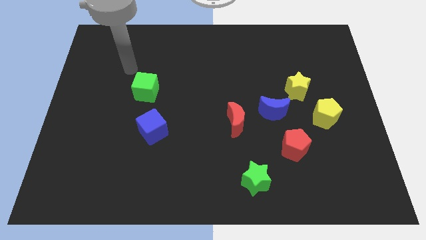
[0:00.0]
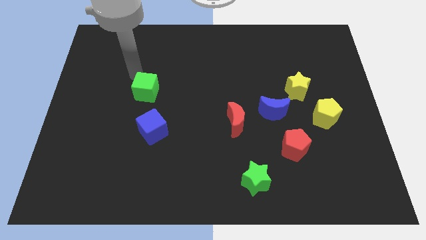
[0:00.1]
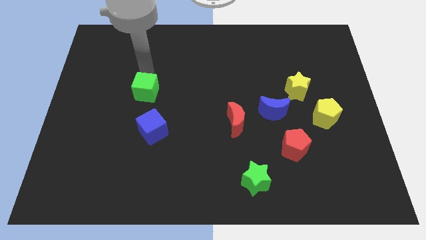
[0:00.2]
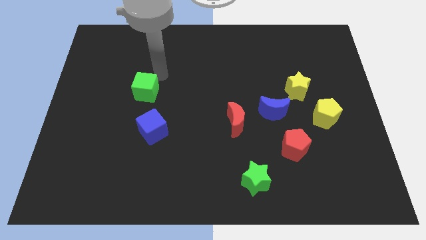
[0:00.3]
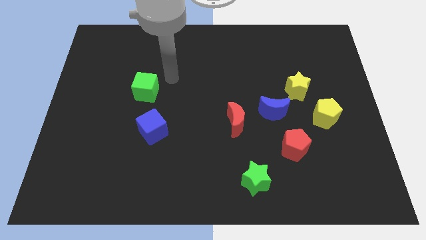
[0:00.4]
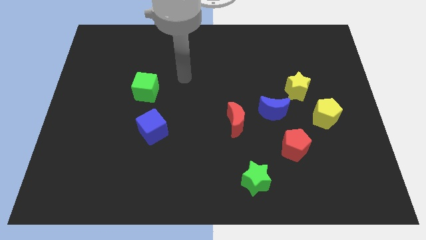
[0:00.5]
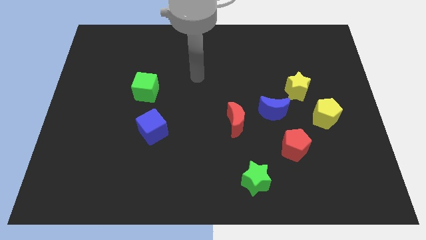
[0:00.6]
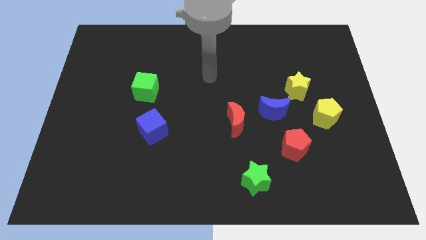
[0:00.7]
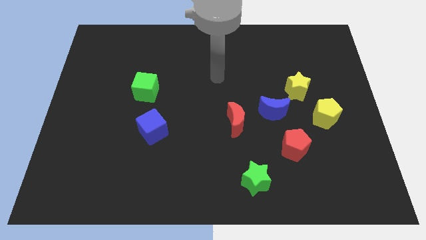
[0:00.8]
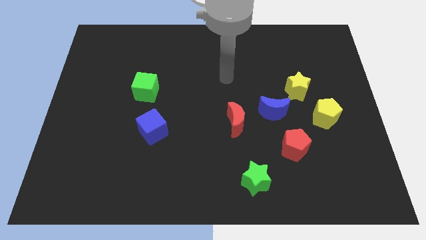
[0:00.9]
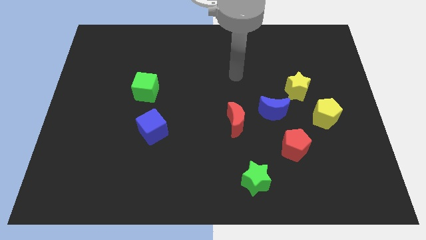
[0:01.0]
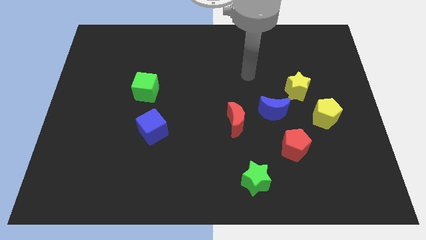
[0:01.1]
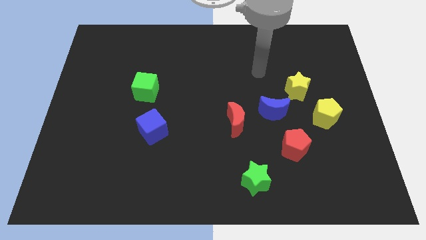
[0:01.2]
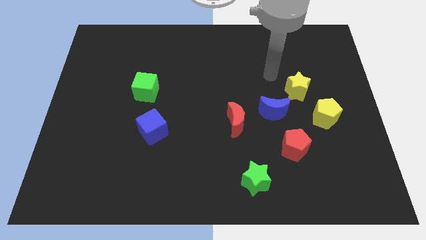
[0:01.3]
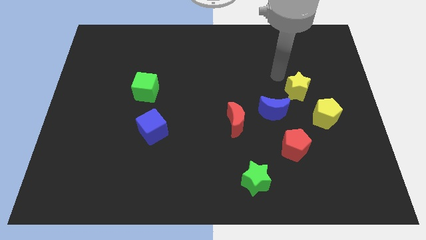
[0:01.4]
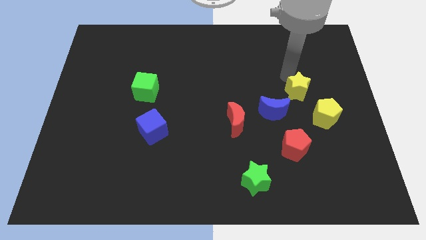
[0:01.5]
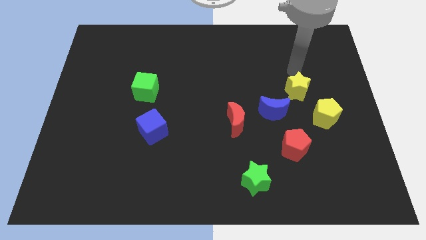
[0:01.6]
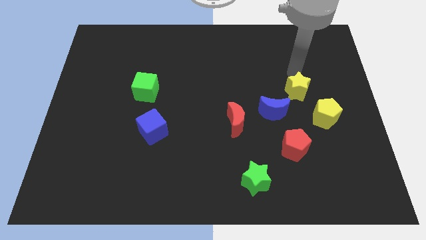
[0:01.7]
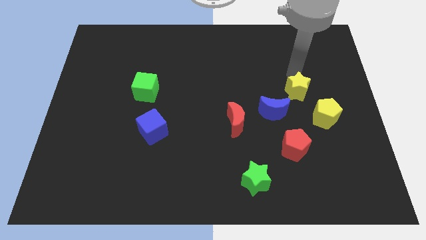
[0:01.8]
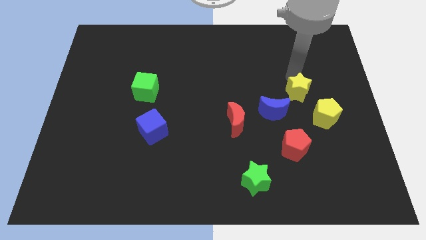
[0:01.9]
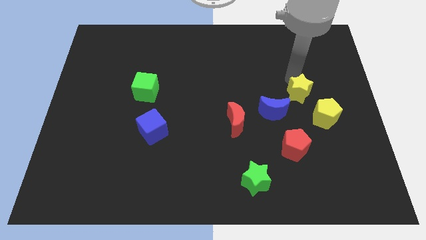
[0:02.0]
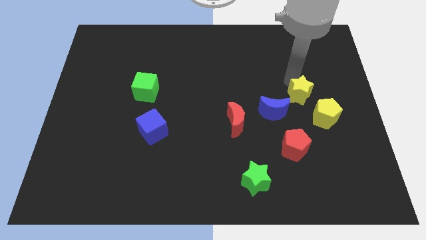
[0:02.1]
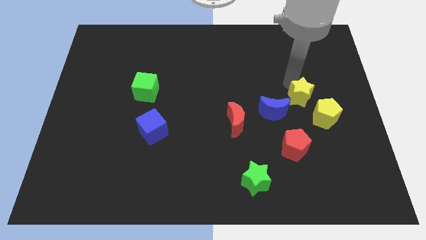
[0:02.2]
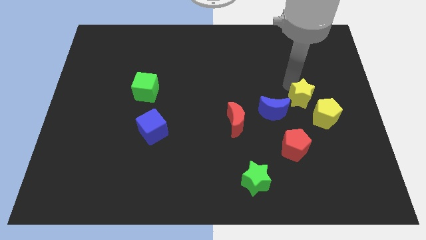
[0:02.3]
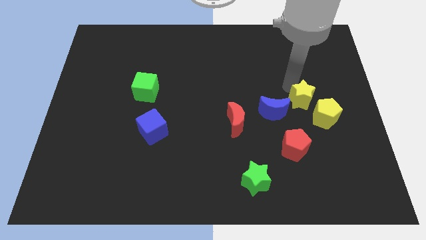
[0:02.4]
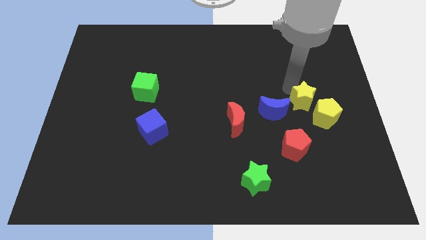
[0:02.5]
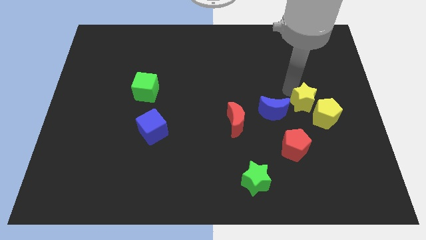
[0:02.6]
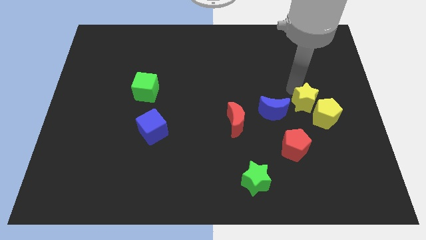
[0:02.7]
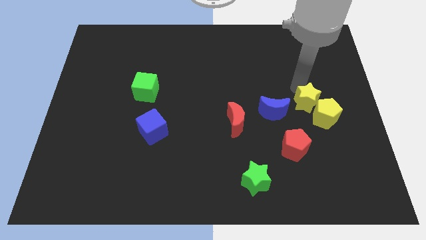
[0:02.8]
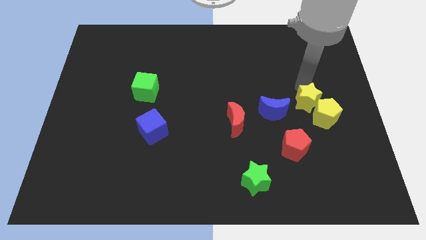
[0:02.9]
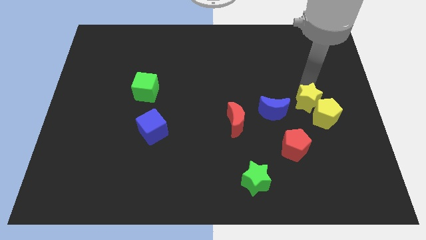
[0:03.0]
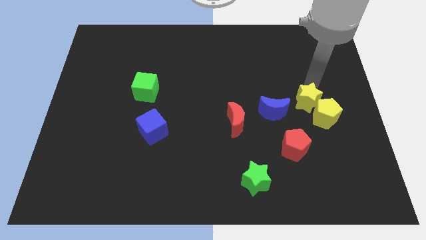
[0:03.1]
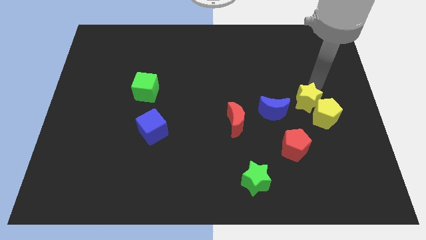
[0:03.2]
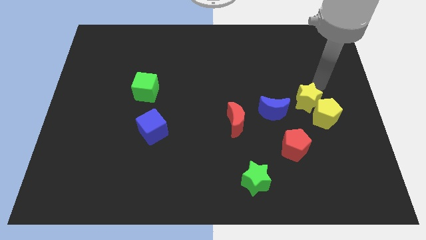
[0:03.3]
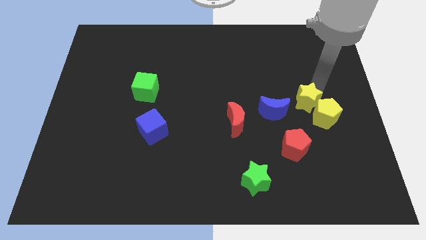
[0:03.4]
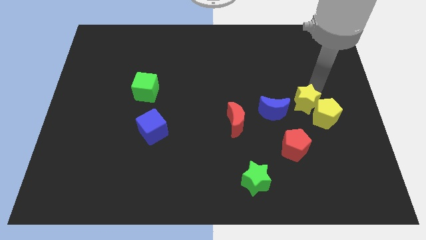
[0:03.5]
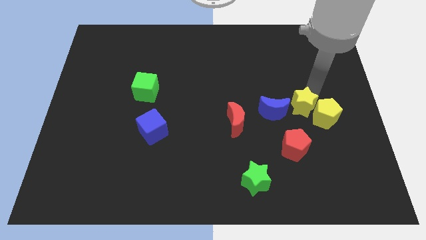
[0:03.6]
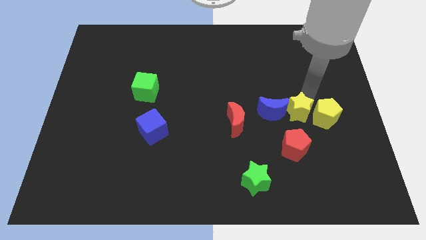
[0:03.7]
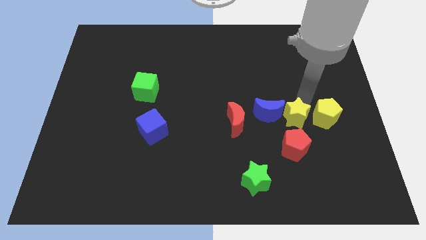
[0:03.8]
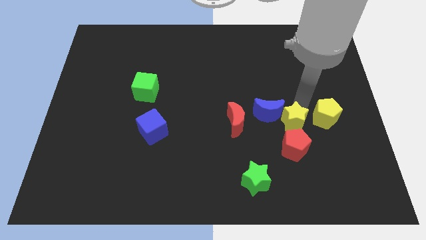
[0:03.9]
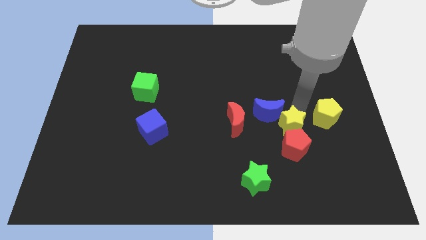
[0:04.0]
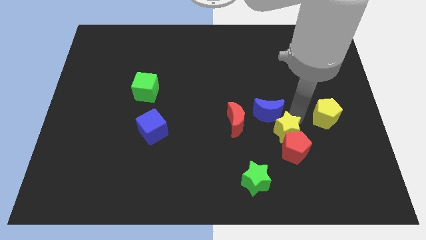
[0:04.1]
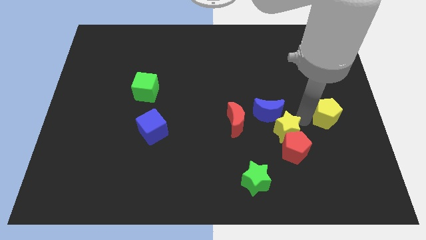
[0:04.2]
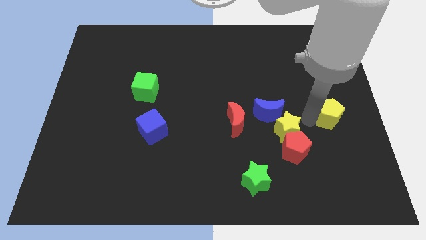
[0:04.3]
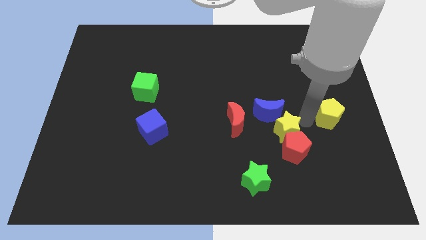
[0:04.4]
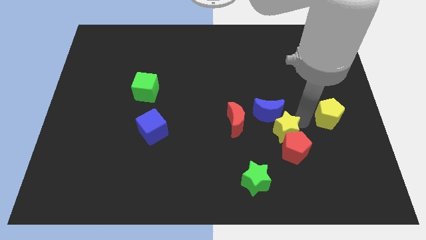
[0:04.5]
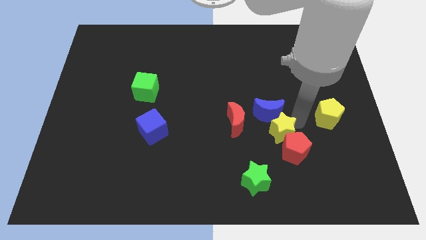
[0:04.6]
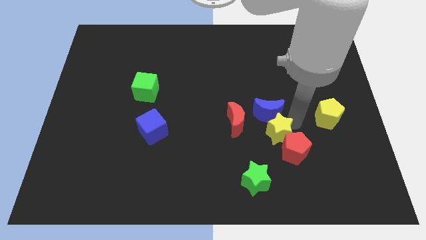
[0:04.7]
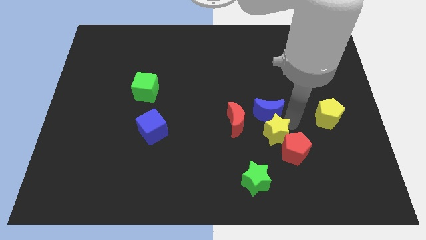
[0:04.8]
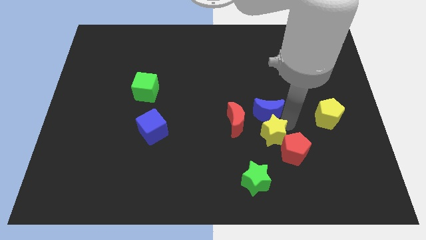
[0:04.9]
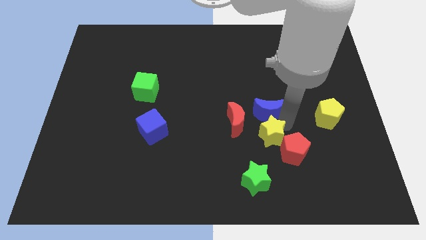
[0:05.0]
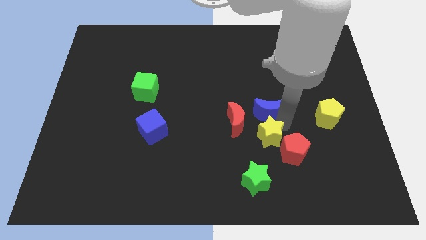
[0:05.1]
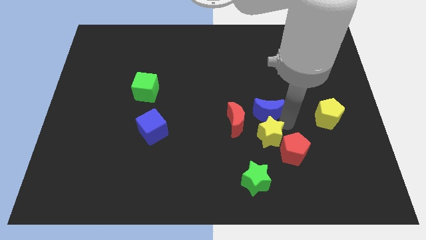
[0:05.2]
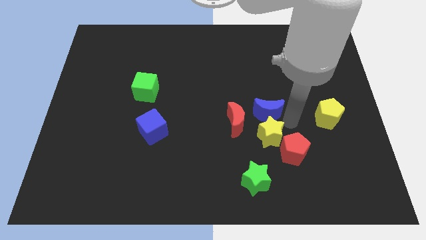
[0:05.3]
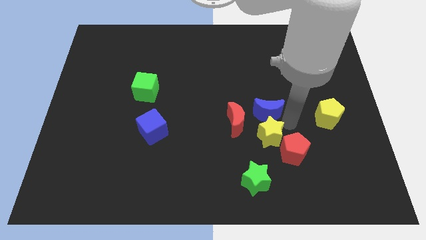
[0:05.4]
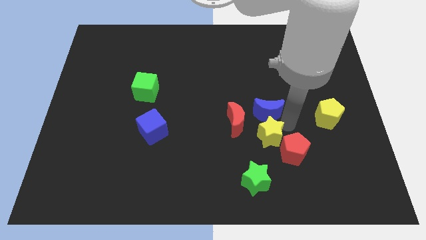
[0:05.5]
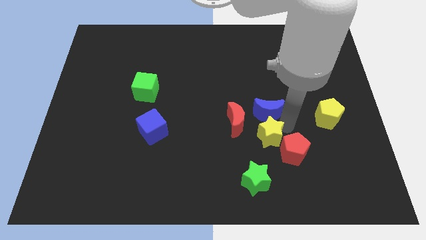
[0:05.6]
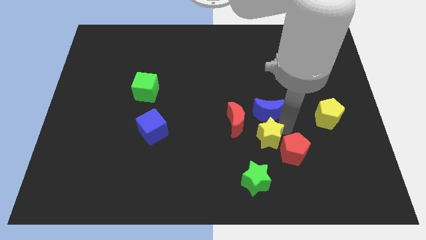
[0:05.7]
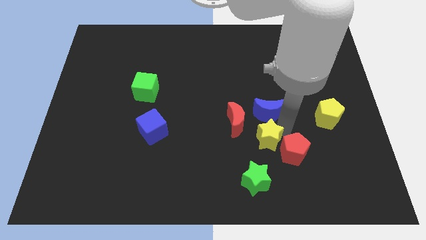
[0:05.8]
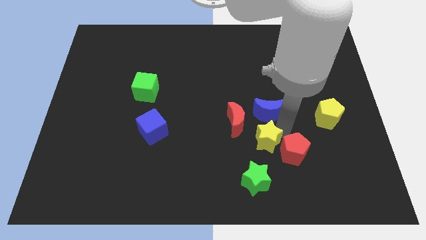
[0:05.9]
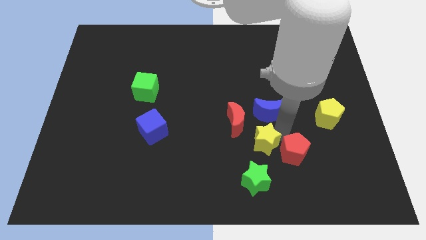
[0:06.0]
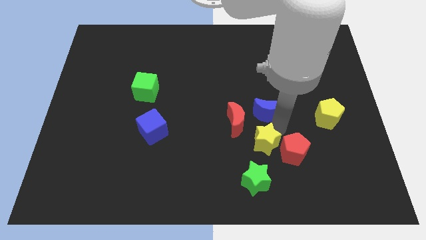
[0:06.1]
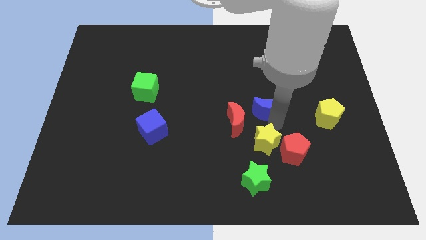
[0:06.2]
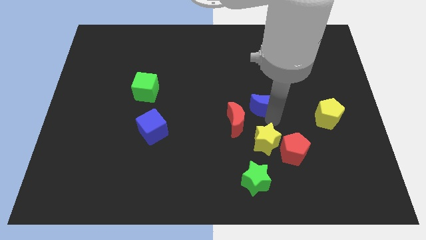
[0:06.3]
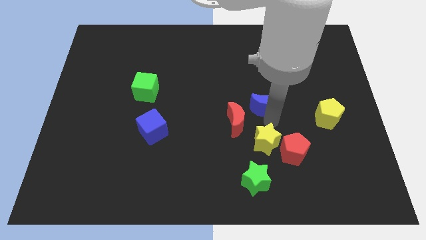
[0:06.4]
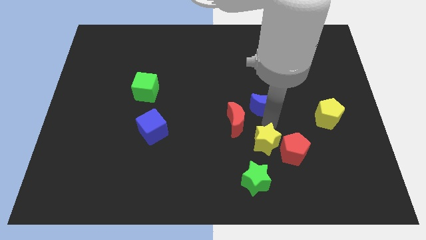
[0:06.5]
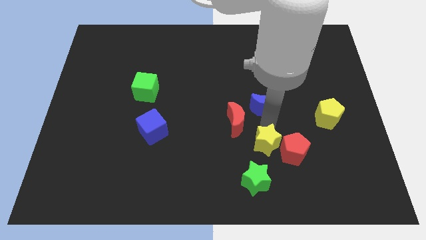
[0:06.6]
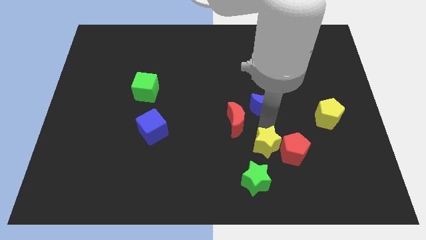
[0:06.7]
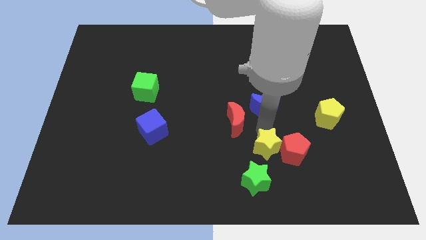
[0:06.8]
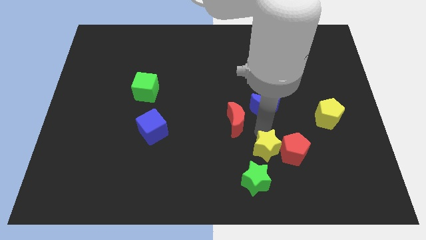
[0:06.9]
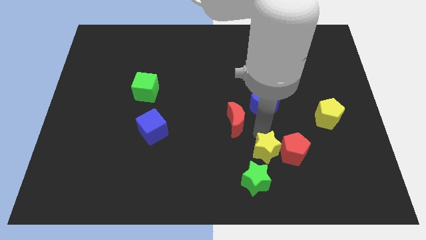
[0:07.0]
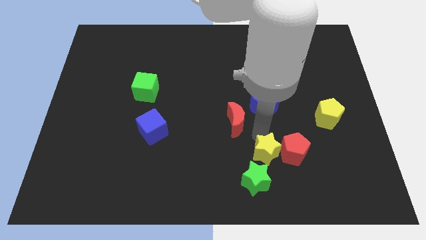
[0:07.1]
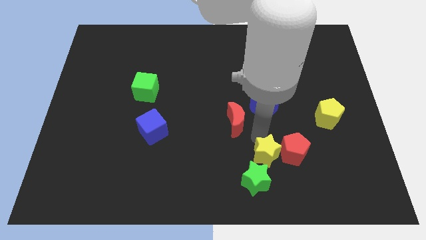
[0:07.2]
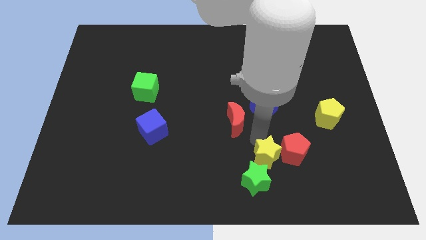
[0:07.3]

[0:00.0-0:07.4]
move the yellow star close to the green star
